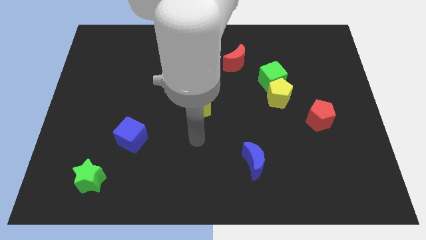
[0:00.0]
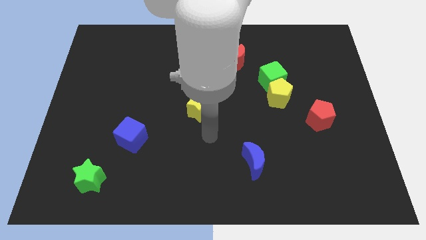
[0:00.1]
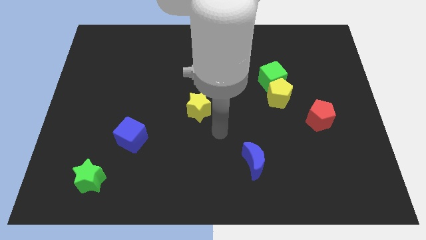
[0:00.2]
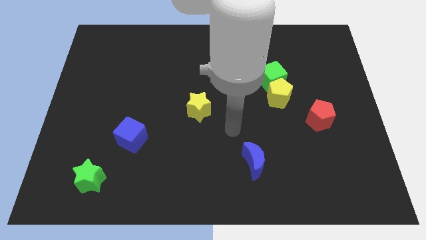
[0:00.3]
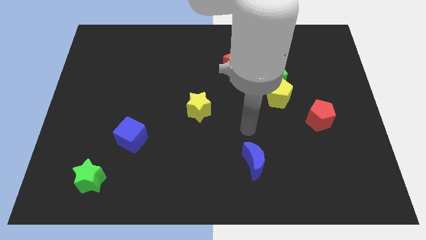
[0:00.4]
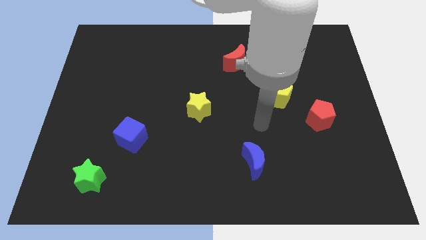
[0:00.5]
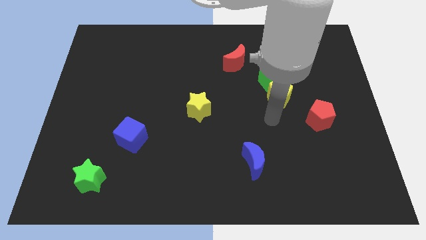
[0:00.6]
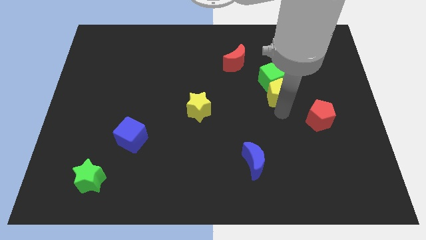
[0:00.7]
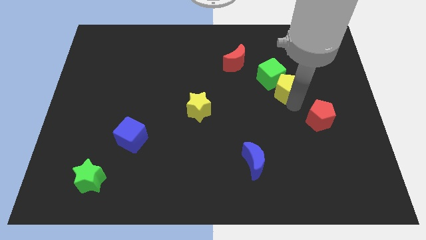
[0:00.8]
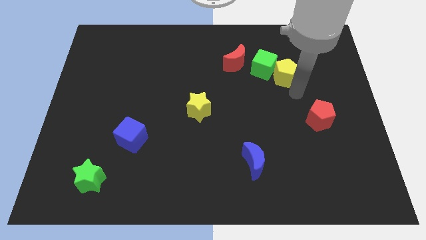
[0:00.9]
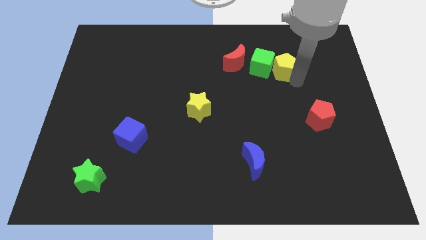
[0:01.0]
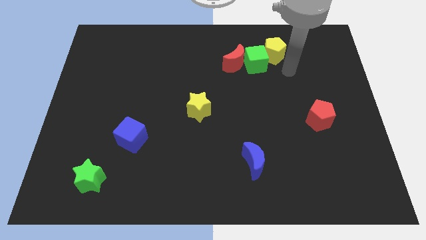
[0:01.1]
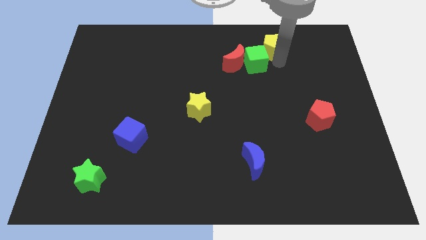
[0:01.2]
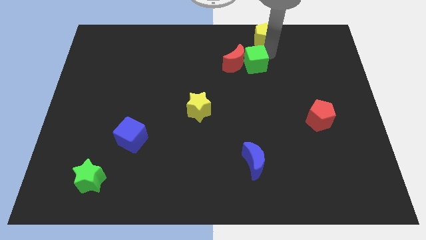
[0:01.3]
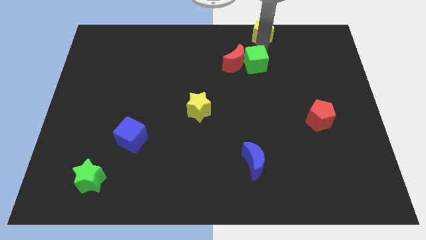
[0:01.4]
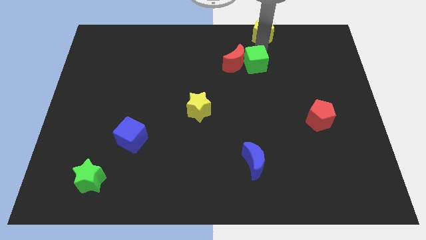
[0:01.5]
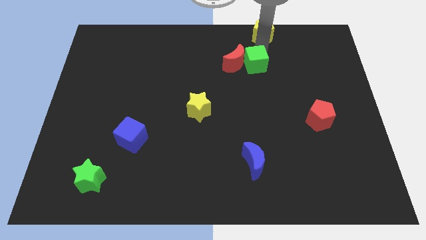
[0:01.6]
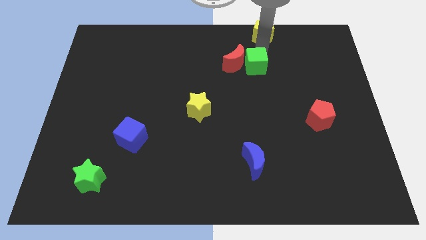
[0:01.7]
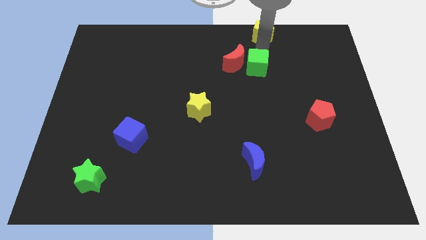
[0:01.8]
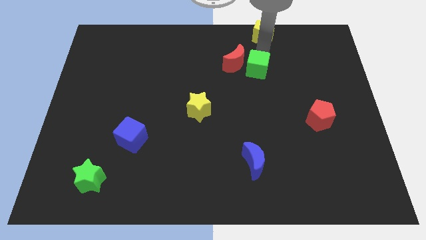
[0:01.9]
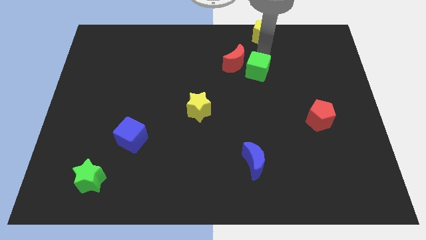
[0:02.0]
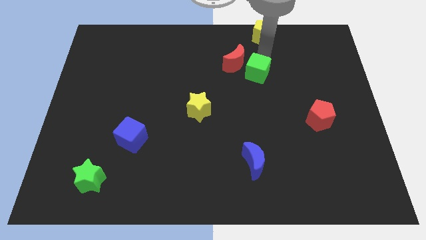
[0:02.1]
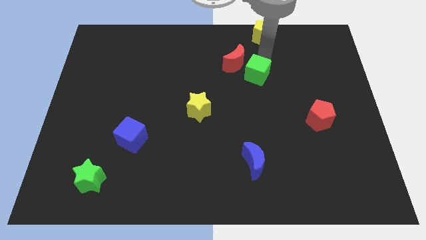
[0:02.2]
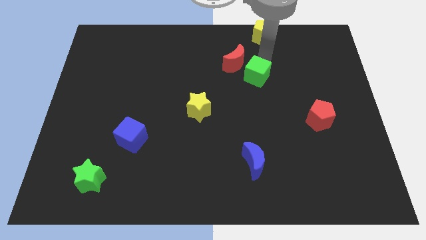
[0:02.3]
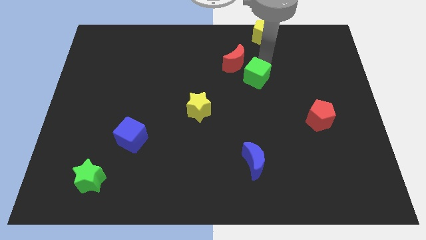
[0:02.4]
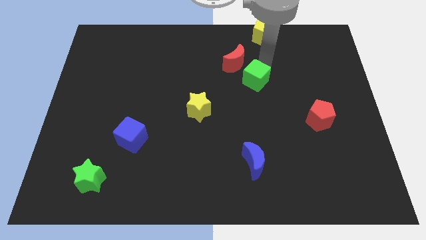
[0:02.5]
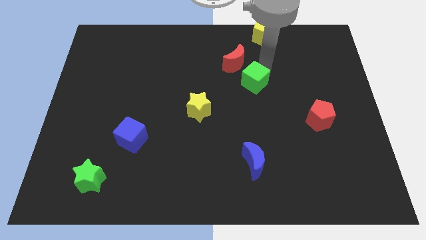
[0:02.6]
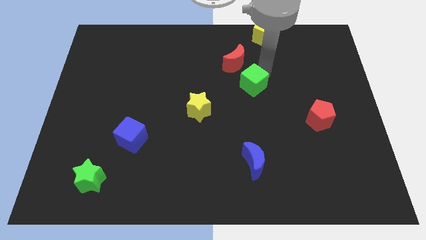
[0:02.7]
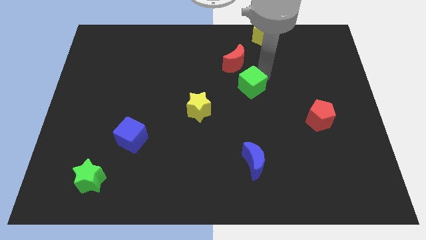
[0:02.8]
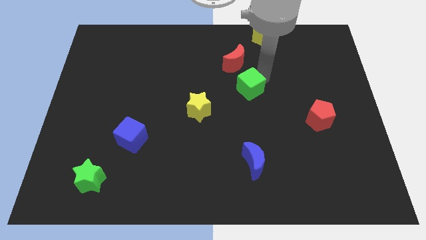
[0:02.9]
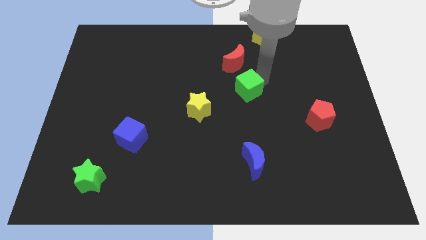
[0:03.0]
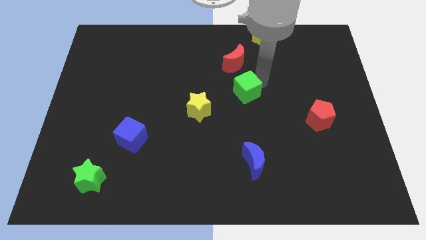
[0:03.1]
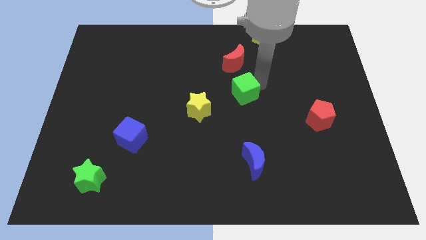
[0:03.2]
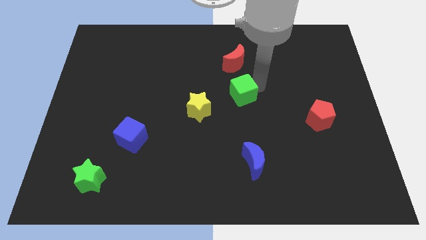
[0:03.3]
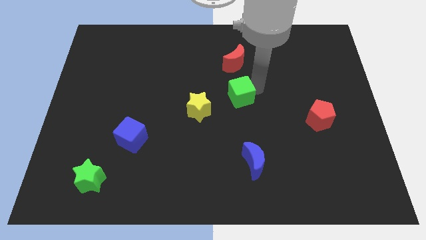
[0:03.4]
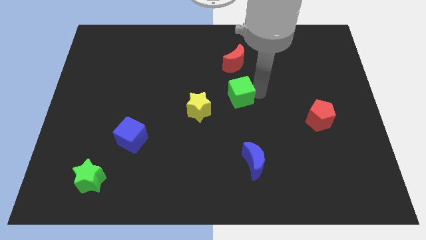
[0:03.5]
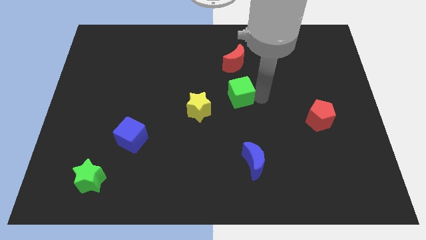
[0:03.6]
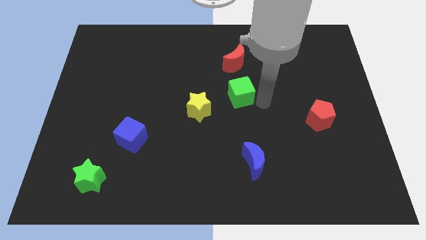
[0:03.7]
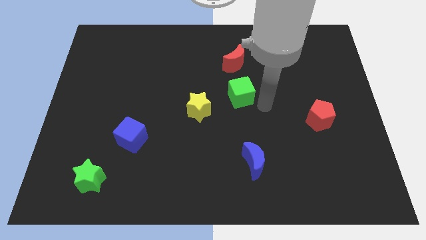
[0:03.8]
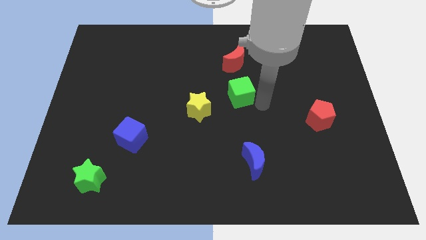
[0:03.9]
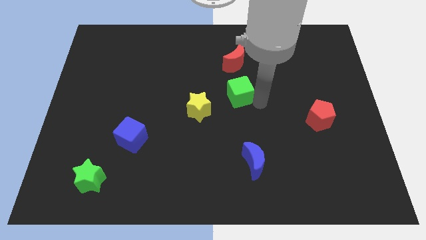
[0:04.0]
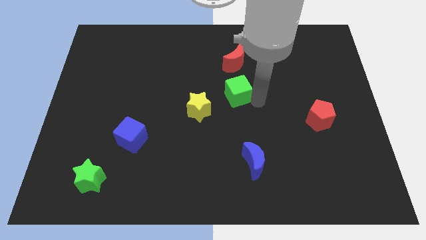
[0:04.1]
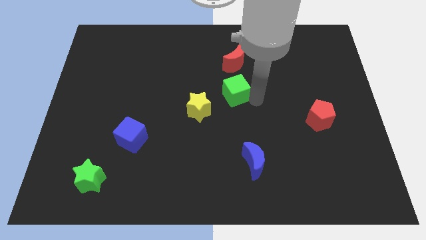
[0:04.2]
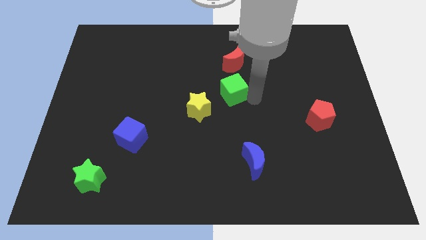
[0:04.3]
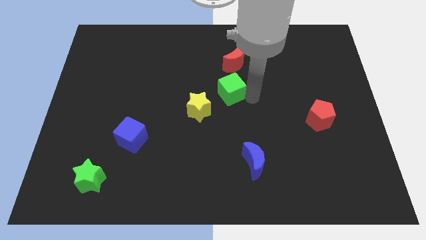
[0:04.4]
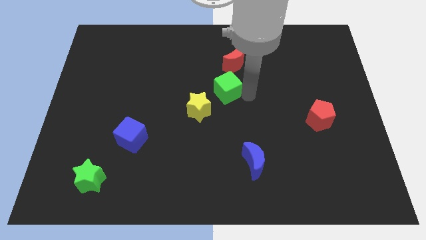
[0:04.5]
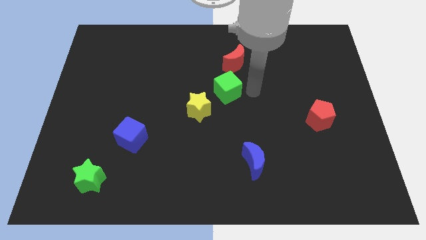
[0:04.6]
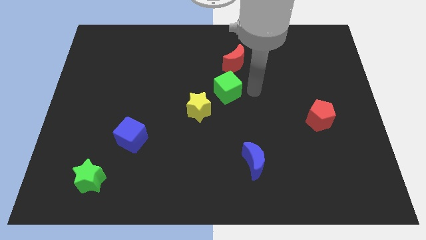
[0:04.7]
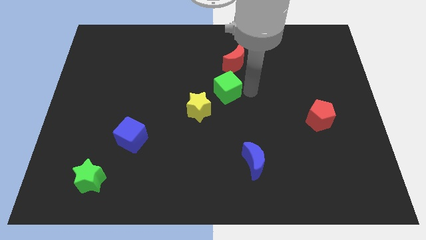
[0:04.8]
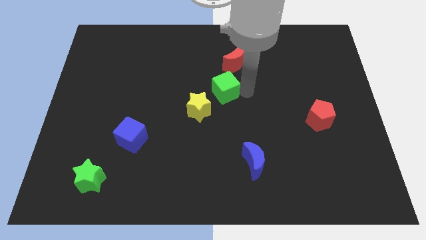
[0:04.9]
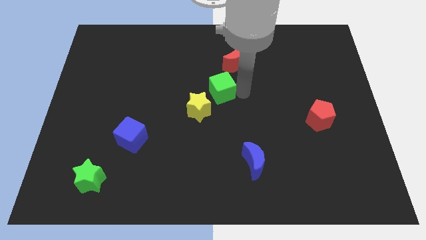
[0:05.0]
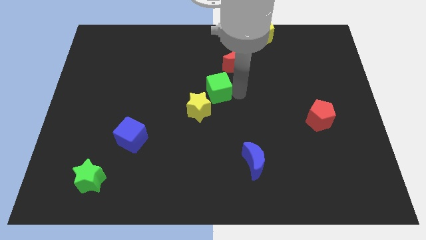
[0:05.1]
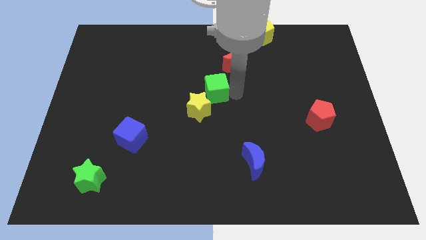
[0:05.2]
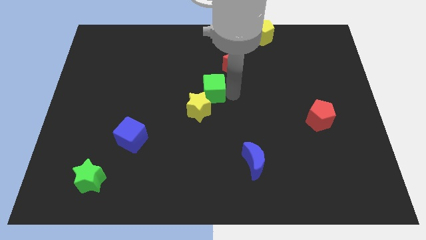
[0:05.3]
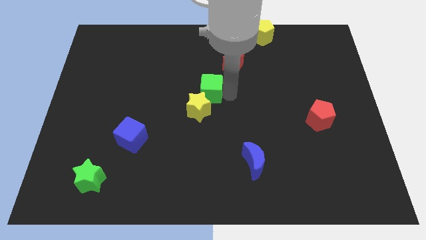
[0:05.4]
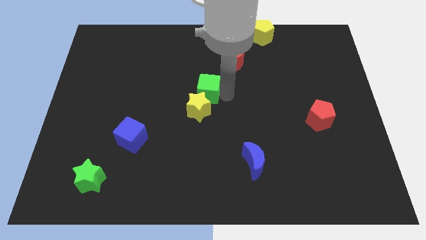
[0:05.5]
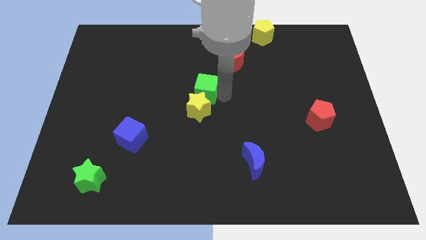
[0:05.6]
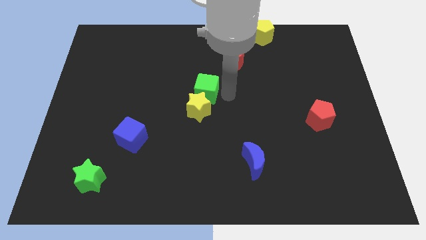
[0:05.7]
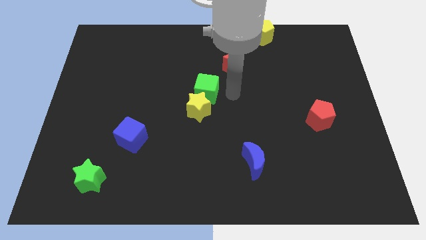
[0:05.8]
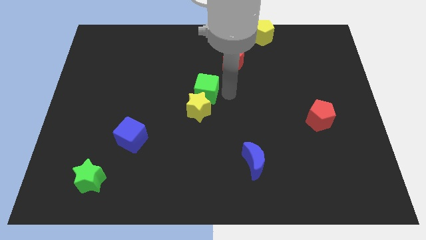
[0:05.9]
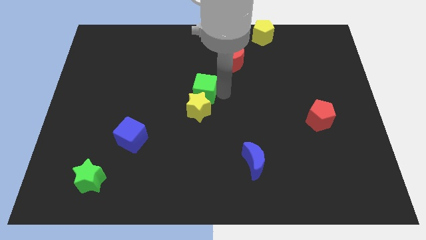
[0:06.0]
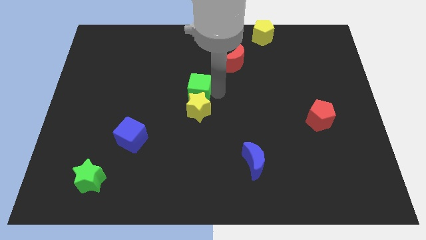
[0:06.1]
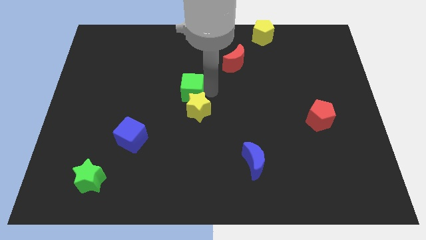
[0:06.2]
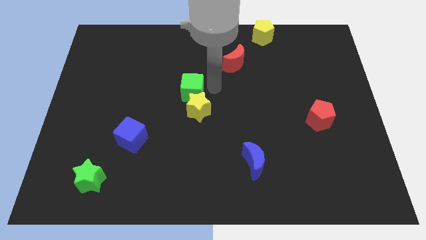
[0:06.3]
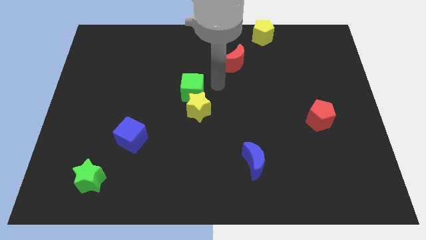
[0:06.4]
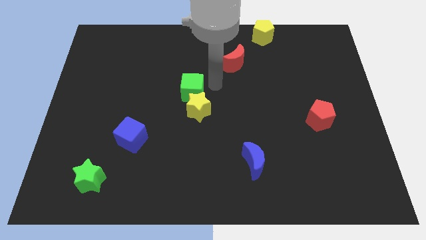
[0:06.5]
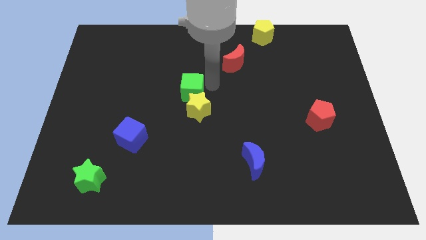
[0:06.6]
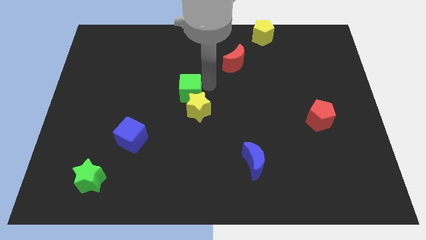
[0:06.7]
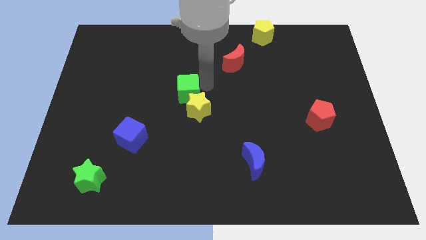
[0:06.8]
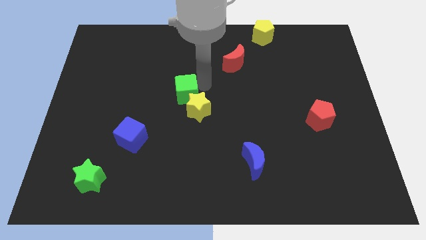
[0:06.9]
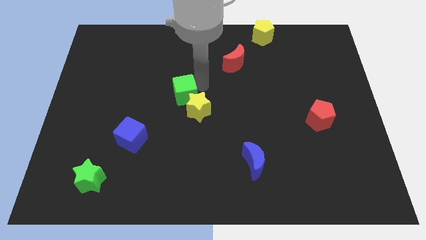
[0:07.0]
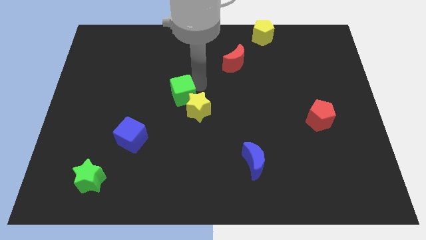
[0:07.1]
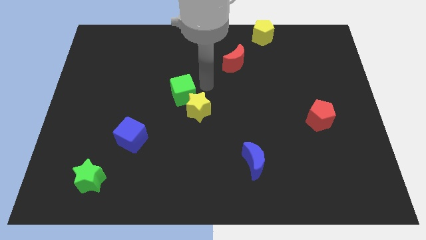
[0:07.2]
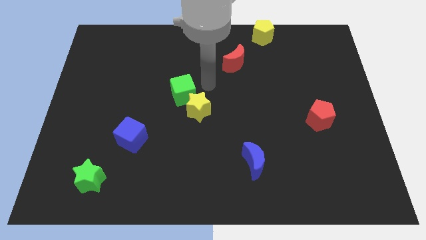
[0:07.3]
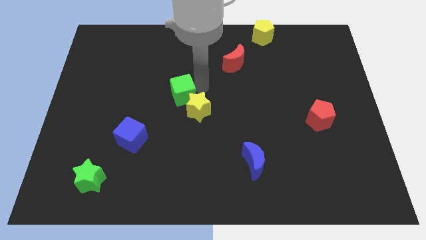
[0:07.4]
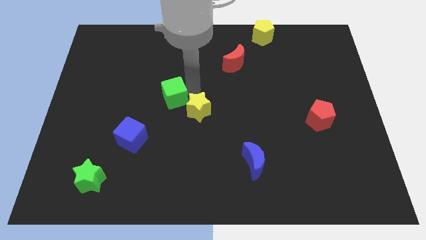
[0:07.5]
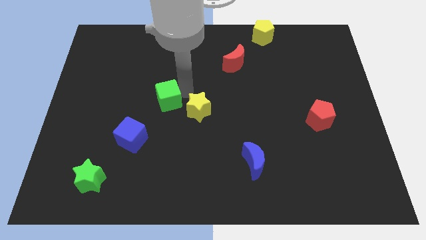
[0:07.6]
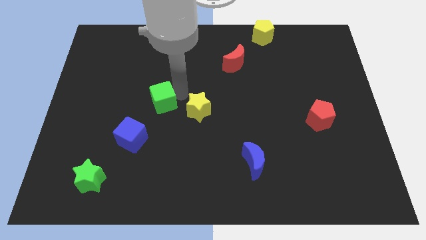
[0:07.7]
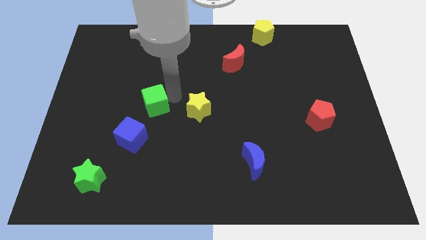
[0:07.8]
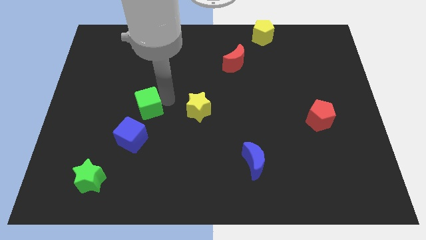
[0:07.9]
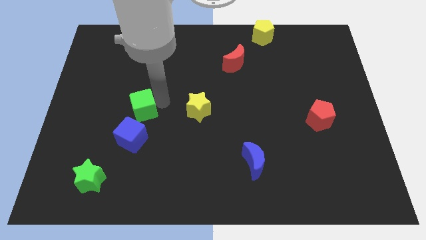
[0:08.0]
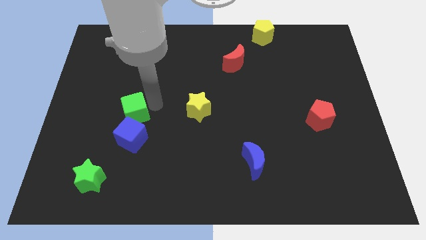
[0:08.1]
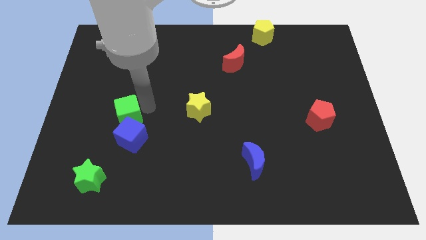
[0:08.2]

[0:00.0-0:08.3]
slide the green cube diagonally up and to the left of the blue cube
